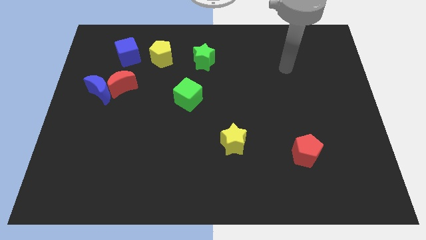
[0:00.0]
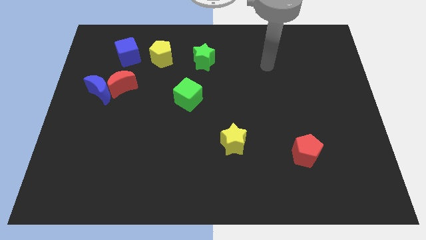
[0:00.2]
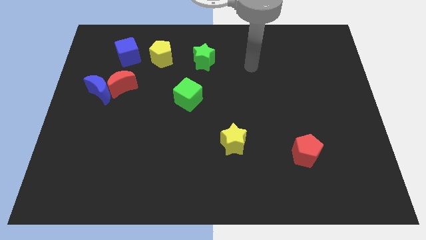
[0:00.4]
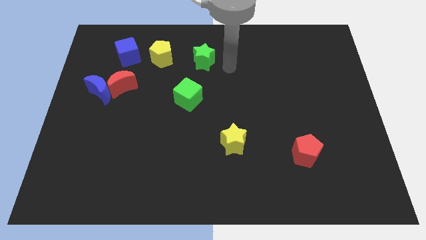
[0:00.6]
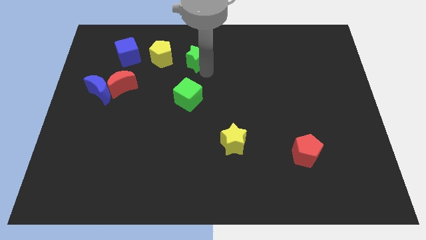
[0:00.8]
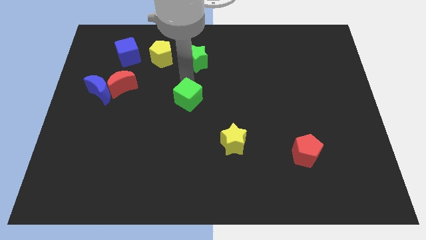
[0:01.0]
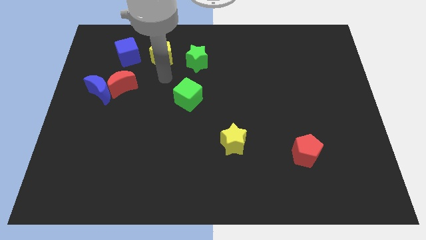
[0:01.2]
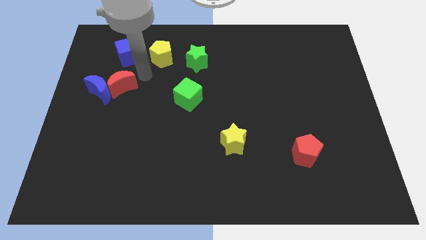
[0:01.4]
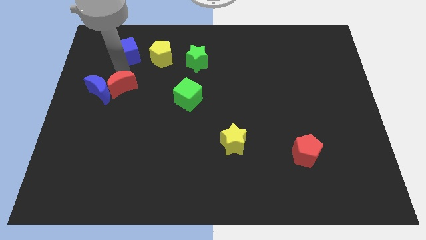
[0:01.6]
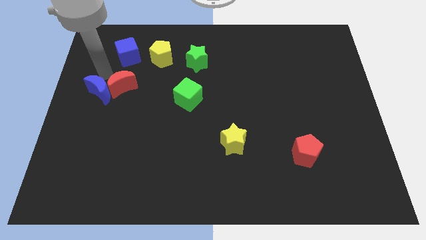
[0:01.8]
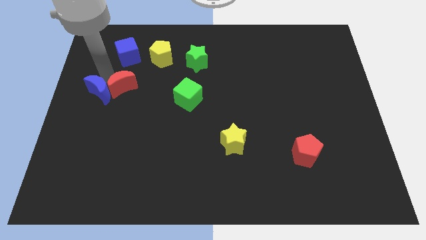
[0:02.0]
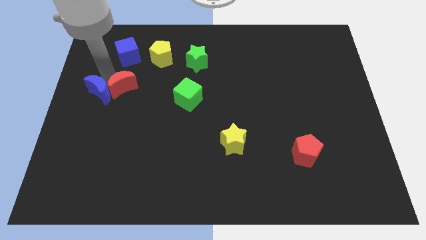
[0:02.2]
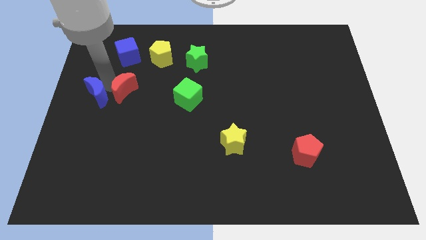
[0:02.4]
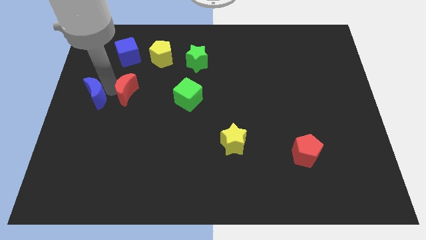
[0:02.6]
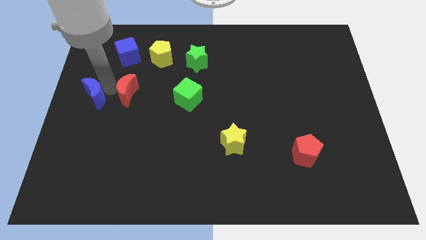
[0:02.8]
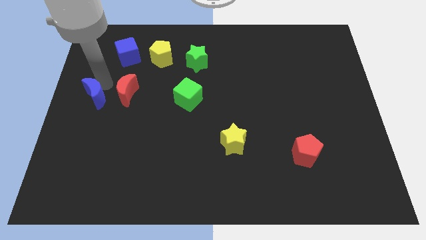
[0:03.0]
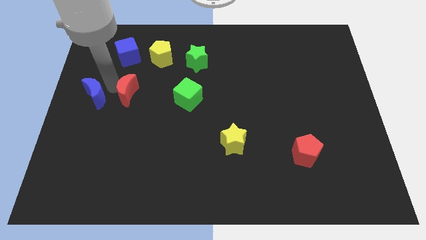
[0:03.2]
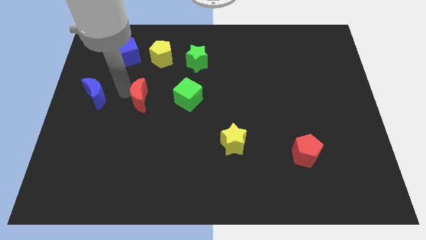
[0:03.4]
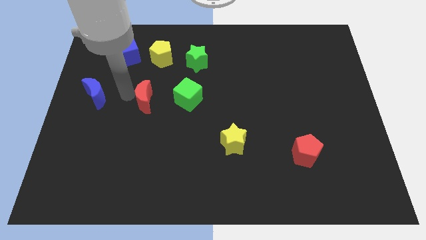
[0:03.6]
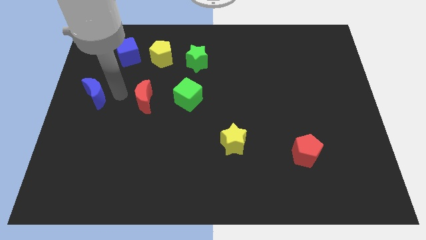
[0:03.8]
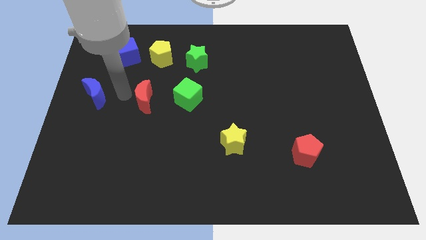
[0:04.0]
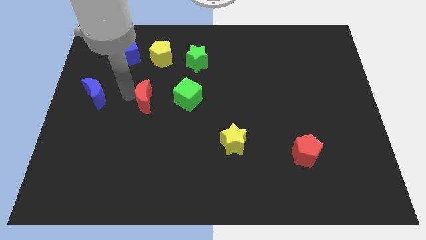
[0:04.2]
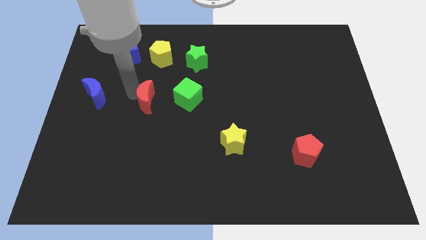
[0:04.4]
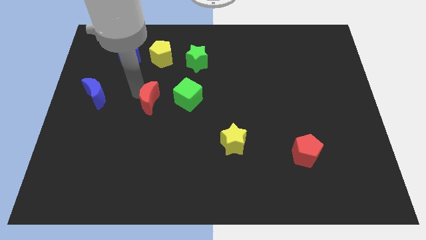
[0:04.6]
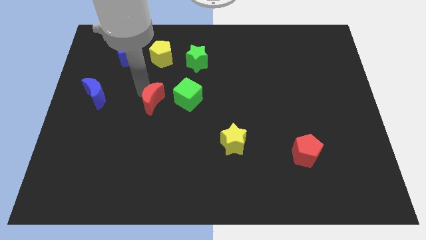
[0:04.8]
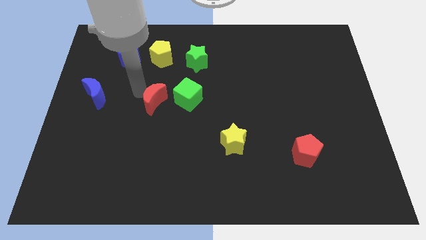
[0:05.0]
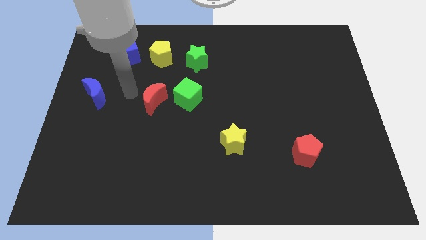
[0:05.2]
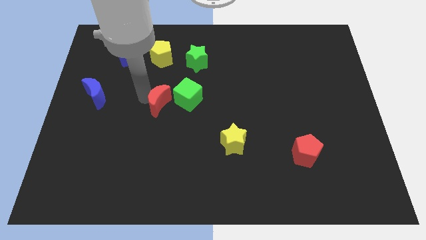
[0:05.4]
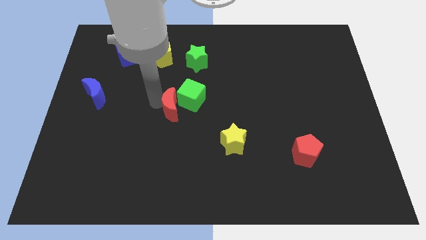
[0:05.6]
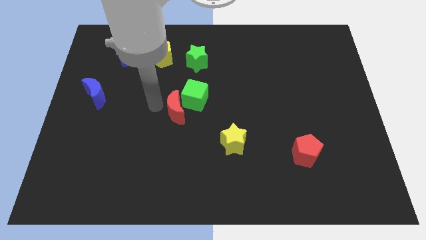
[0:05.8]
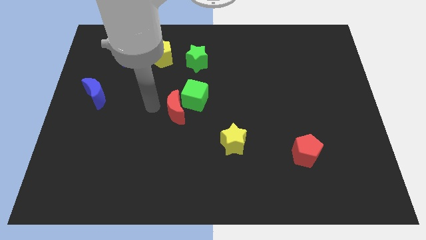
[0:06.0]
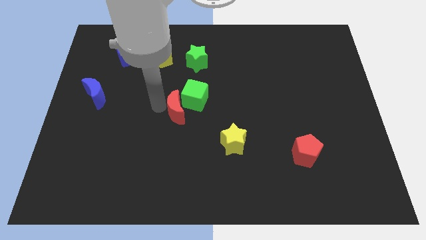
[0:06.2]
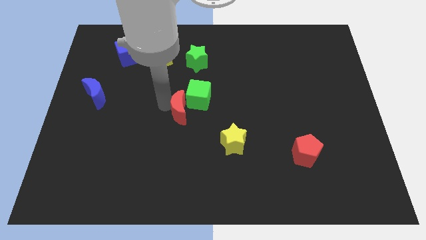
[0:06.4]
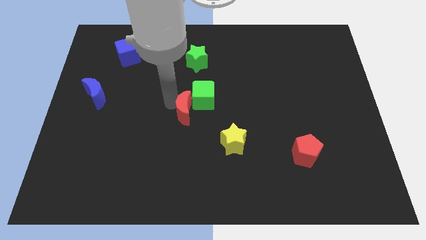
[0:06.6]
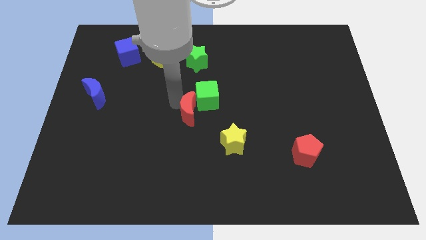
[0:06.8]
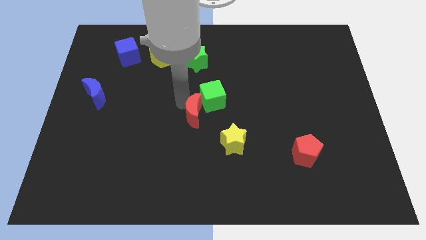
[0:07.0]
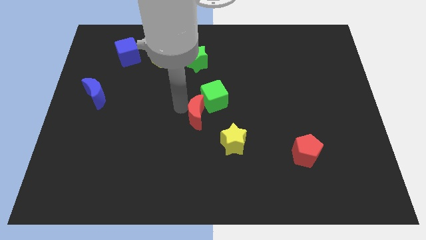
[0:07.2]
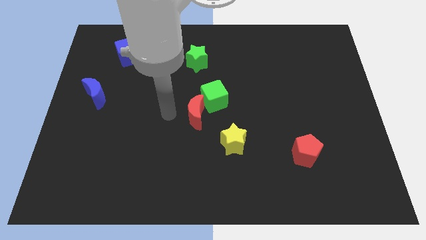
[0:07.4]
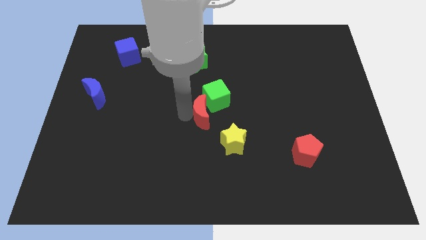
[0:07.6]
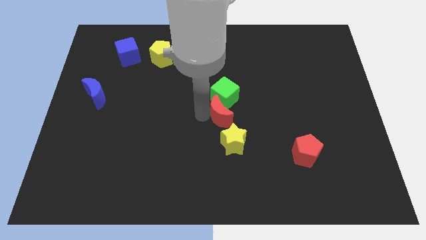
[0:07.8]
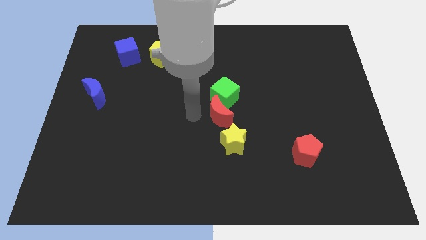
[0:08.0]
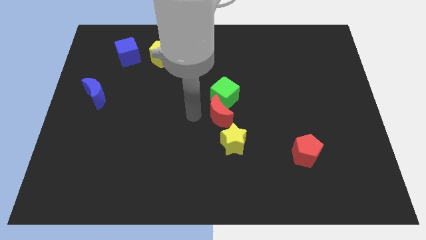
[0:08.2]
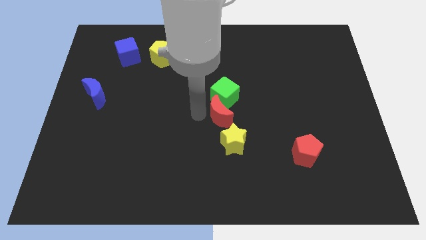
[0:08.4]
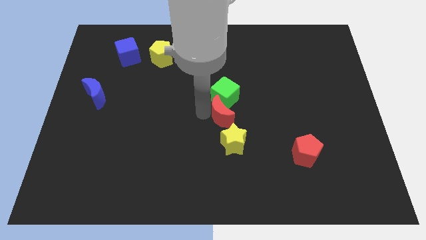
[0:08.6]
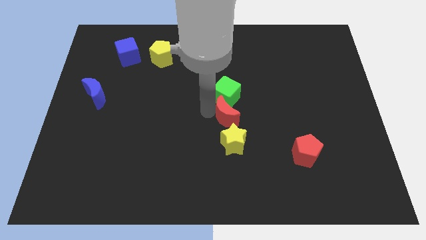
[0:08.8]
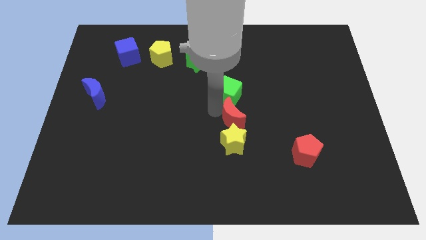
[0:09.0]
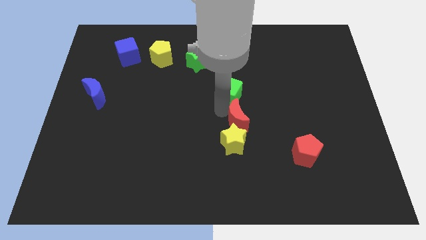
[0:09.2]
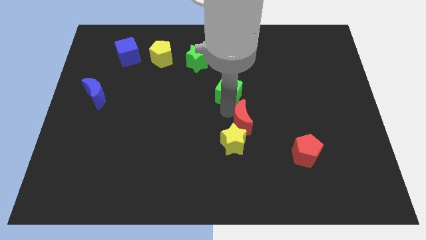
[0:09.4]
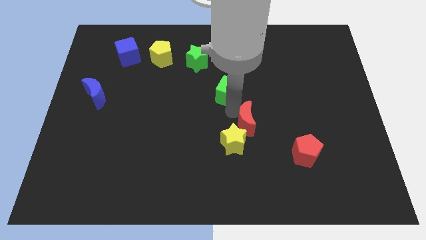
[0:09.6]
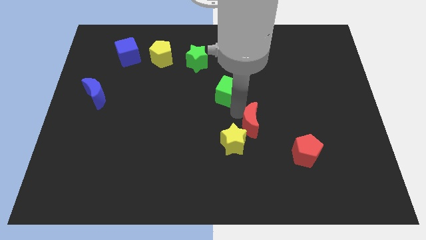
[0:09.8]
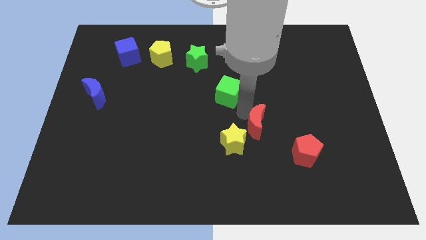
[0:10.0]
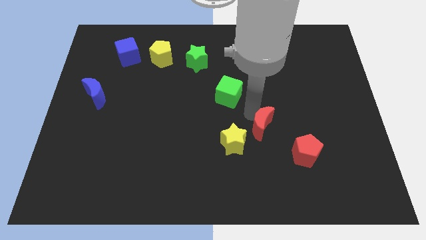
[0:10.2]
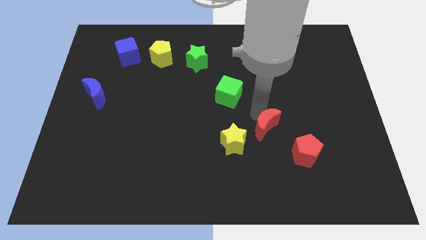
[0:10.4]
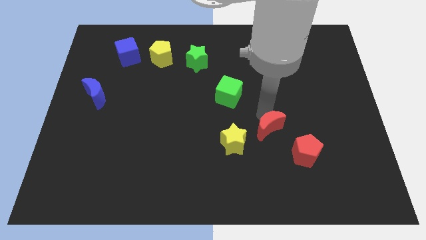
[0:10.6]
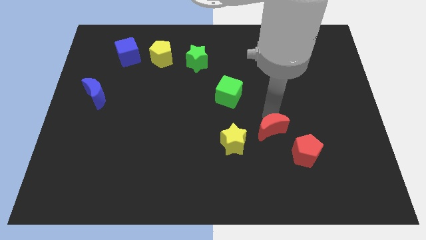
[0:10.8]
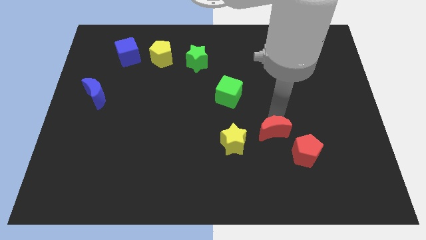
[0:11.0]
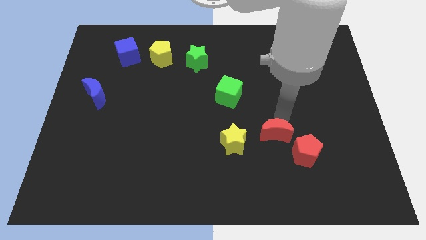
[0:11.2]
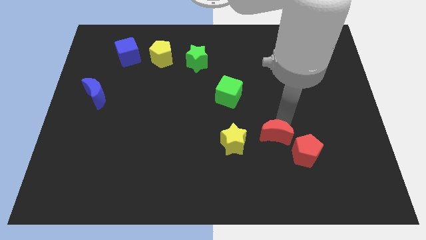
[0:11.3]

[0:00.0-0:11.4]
move the red moon to the left of the red pentagon

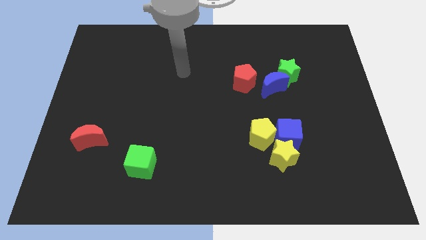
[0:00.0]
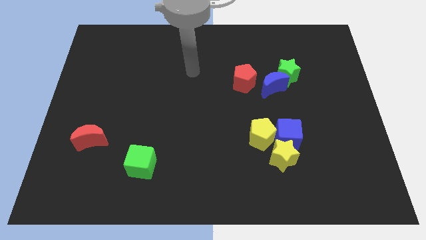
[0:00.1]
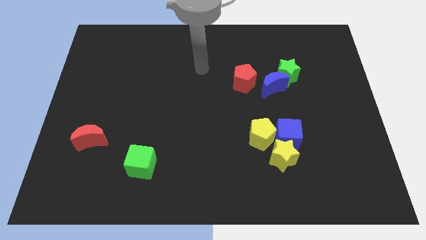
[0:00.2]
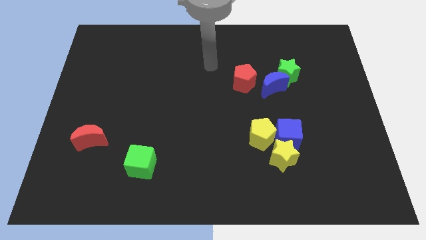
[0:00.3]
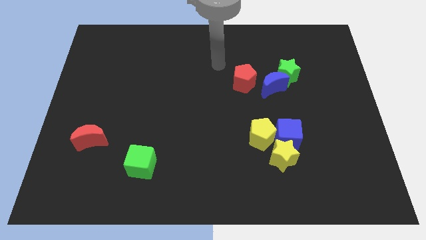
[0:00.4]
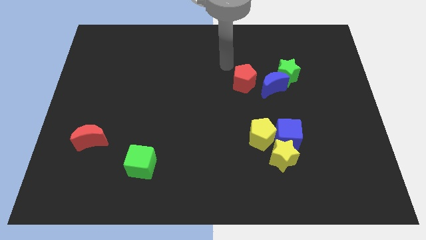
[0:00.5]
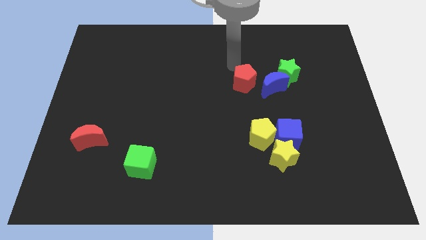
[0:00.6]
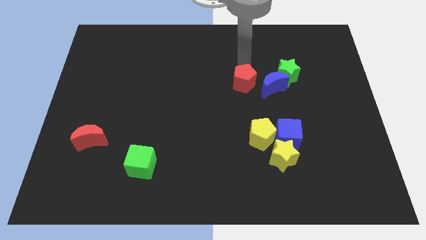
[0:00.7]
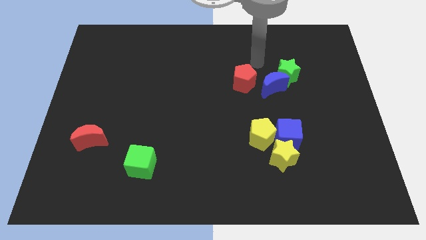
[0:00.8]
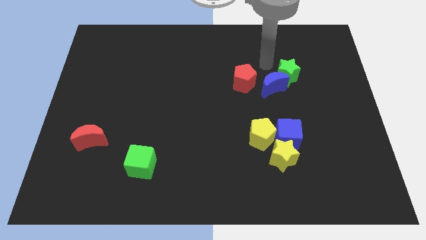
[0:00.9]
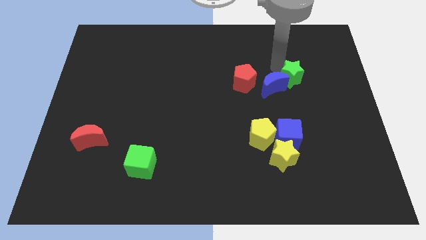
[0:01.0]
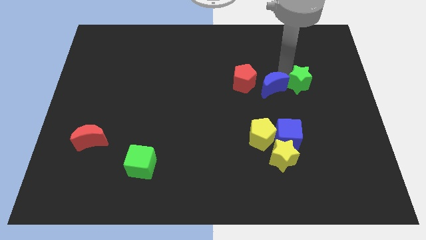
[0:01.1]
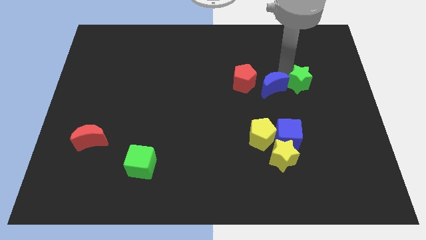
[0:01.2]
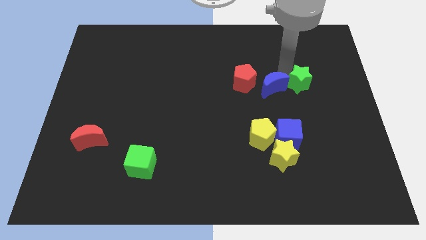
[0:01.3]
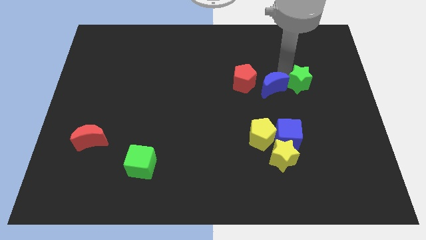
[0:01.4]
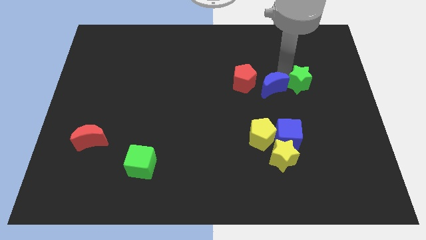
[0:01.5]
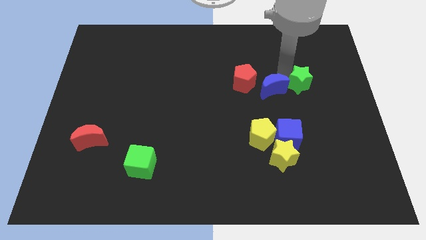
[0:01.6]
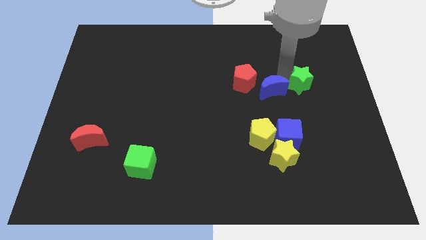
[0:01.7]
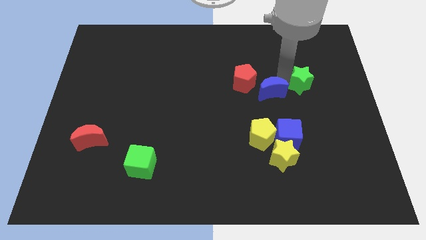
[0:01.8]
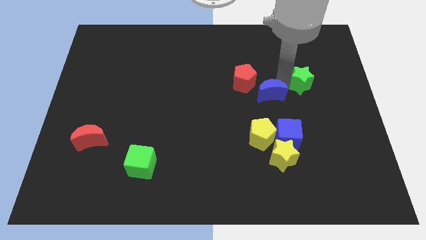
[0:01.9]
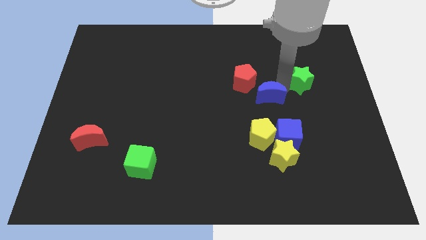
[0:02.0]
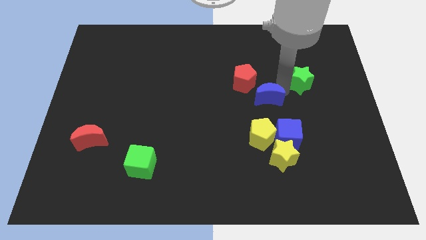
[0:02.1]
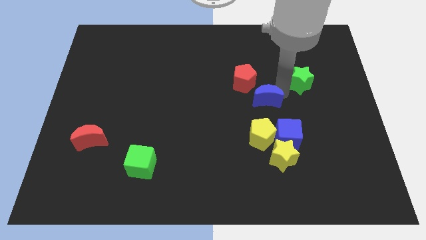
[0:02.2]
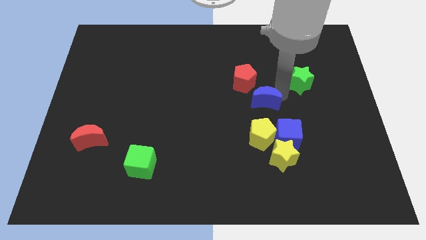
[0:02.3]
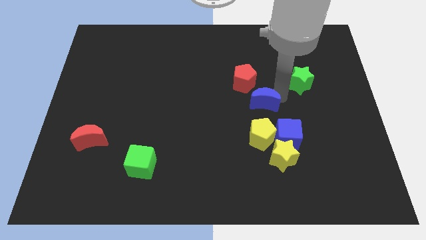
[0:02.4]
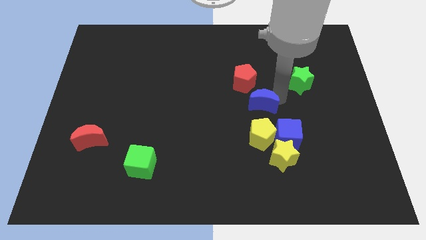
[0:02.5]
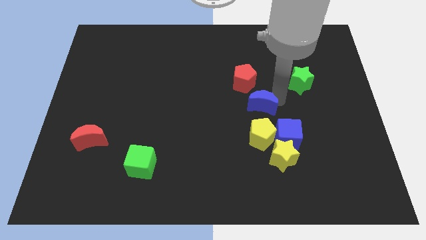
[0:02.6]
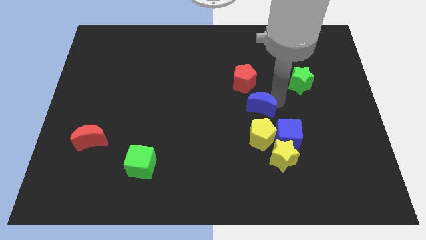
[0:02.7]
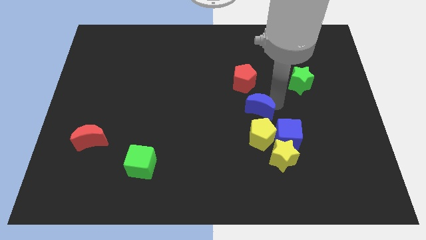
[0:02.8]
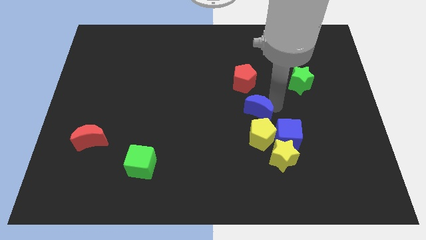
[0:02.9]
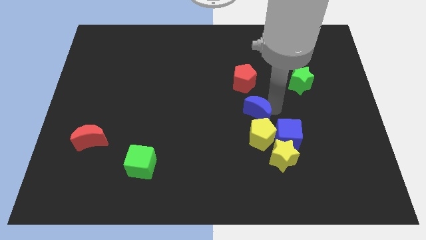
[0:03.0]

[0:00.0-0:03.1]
push the blue moon to the top left side of the yellow pentagon
